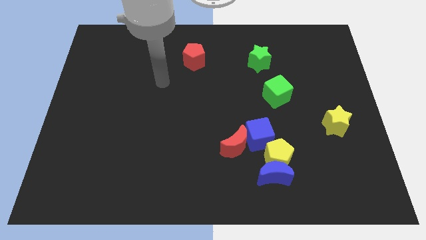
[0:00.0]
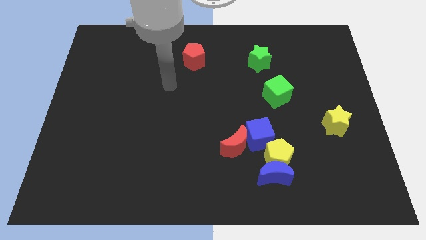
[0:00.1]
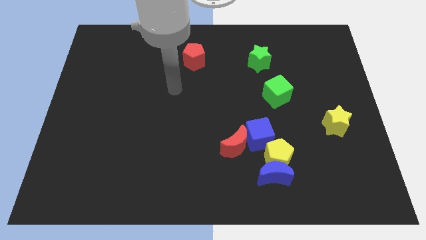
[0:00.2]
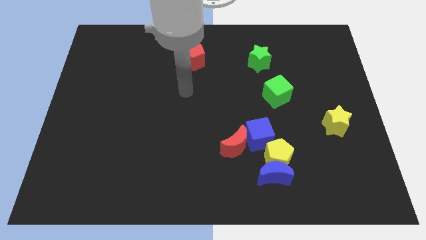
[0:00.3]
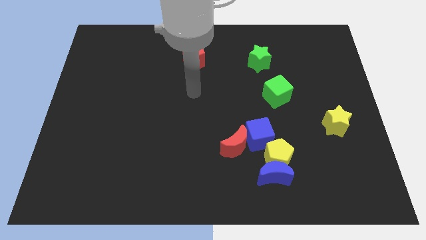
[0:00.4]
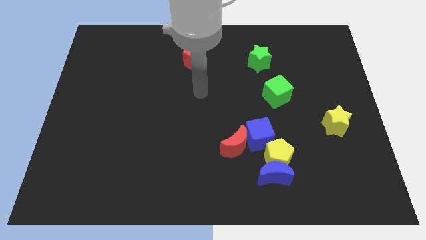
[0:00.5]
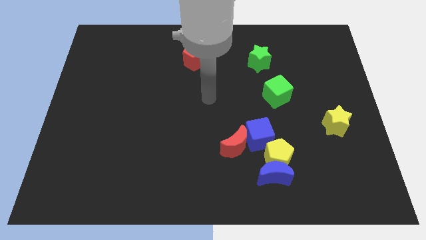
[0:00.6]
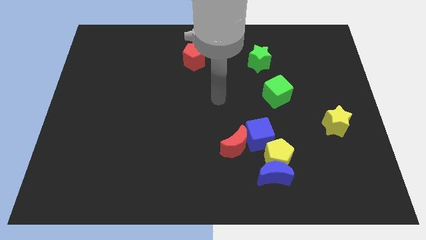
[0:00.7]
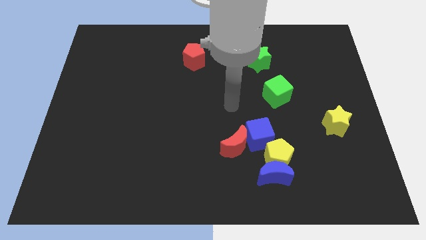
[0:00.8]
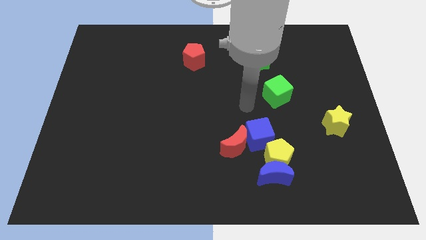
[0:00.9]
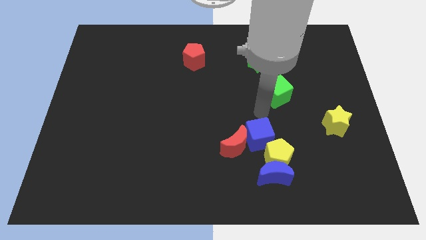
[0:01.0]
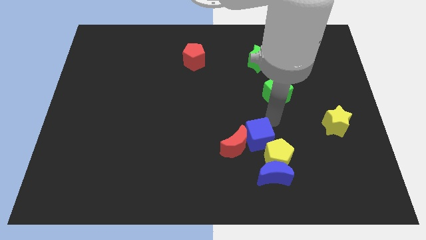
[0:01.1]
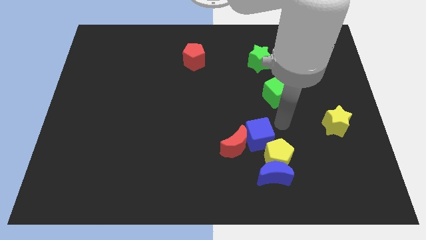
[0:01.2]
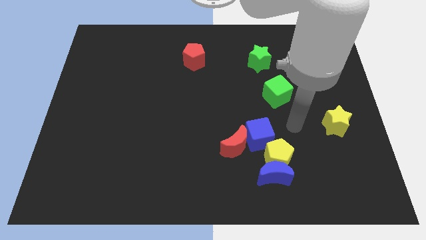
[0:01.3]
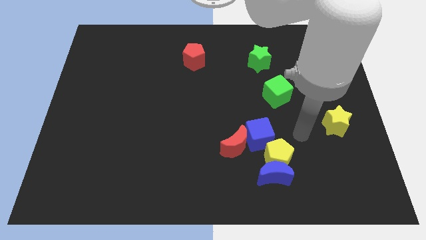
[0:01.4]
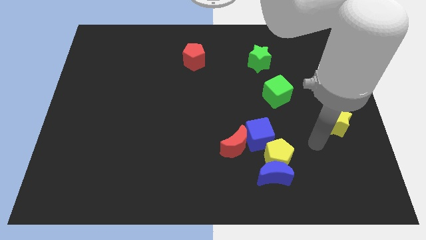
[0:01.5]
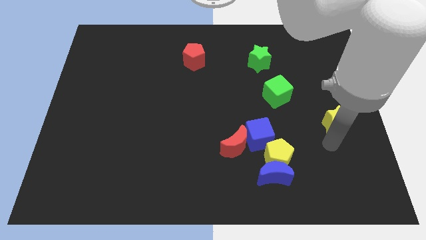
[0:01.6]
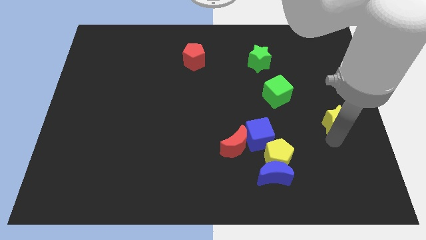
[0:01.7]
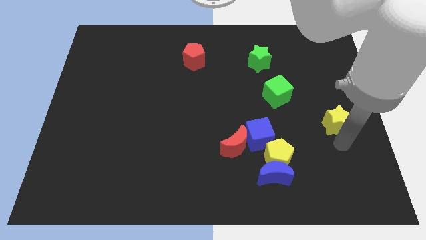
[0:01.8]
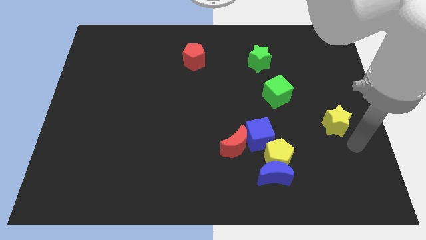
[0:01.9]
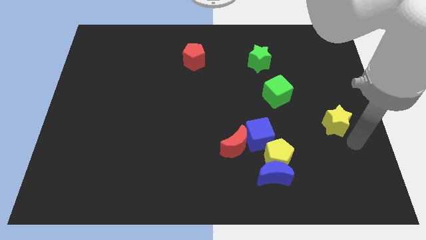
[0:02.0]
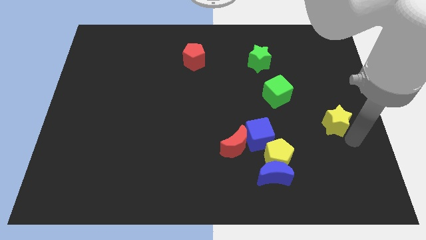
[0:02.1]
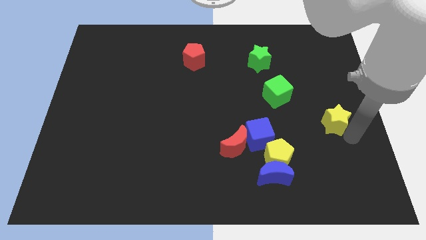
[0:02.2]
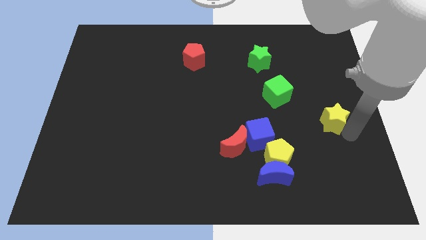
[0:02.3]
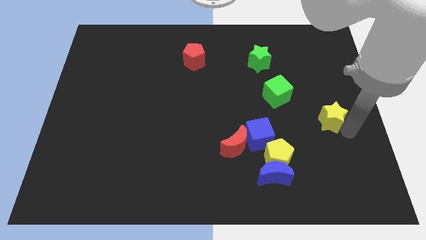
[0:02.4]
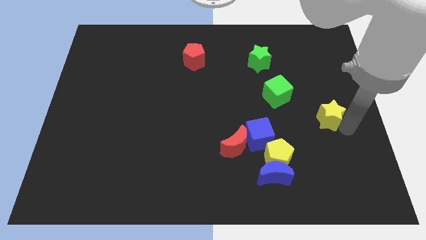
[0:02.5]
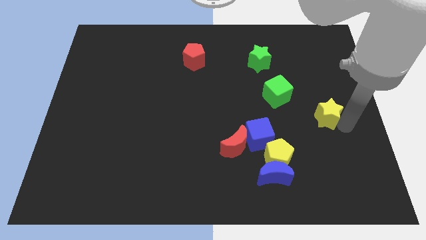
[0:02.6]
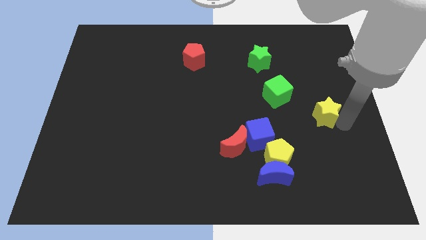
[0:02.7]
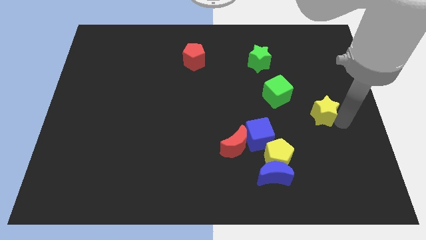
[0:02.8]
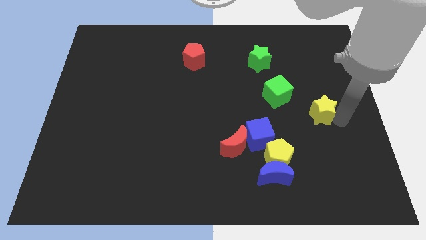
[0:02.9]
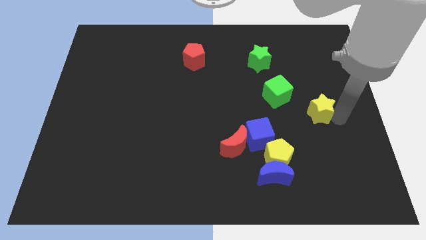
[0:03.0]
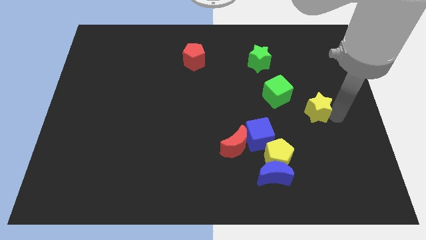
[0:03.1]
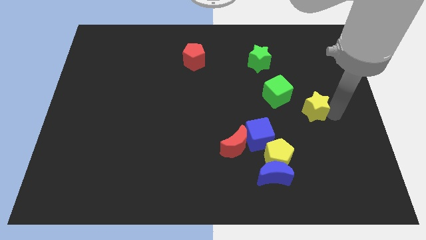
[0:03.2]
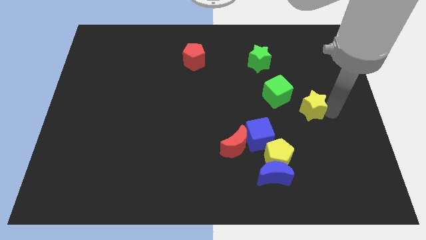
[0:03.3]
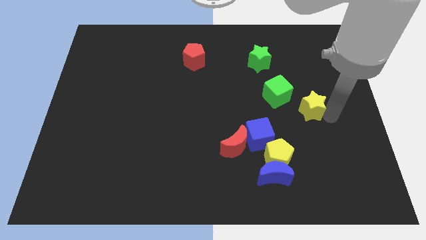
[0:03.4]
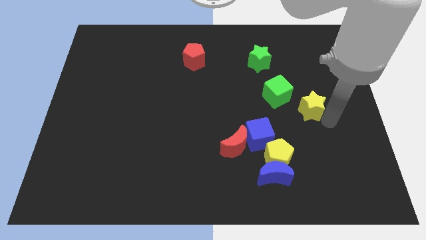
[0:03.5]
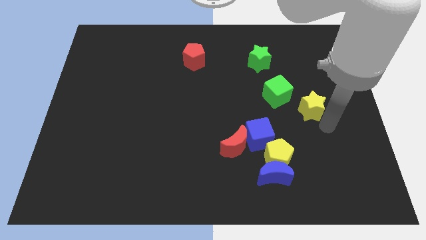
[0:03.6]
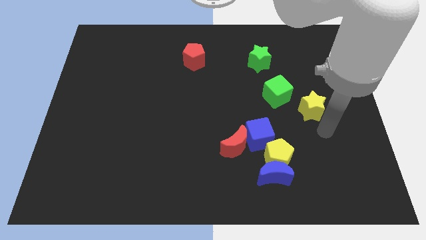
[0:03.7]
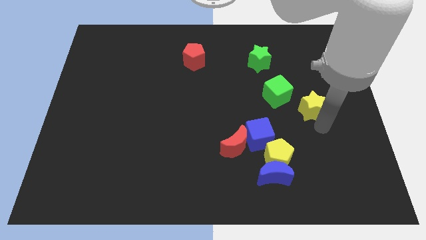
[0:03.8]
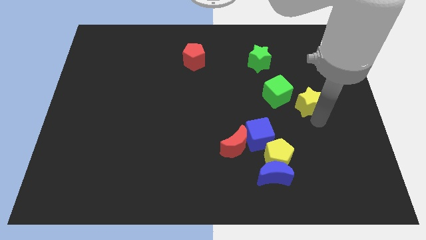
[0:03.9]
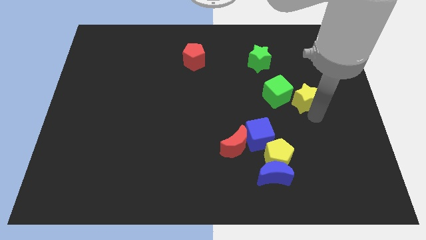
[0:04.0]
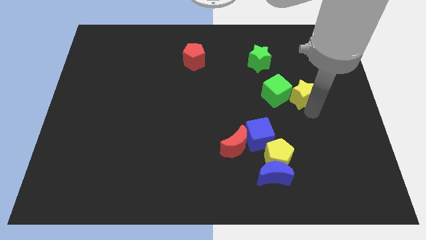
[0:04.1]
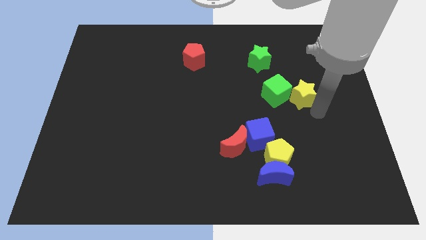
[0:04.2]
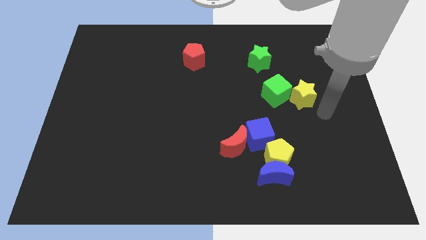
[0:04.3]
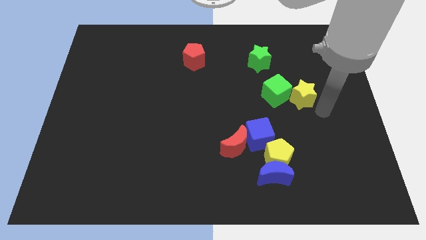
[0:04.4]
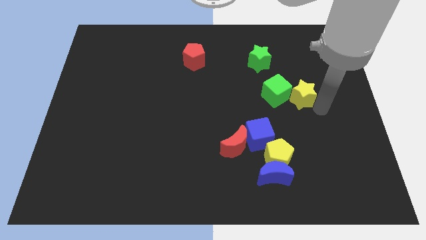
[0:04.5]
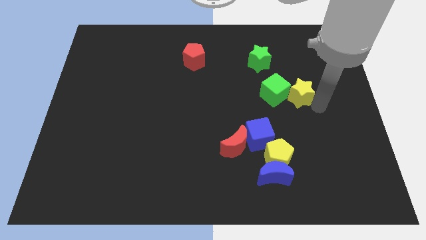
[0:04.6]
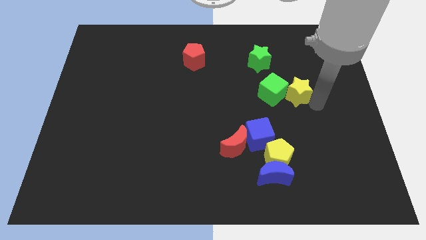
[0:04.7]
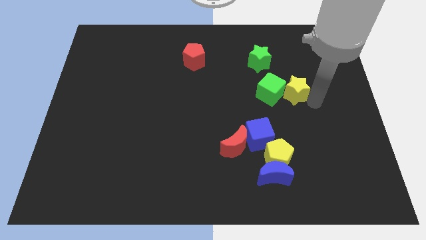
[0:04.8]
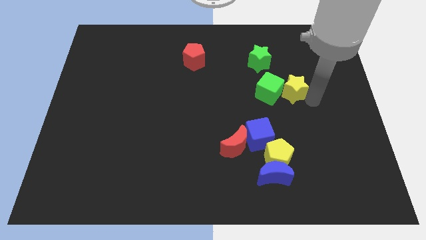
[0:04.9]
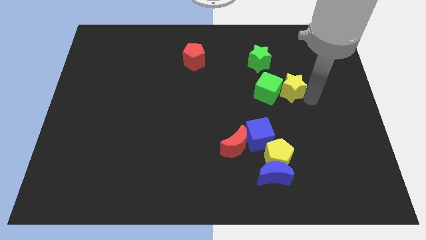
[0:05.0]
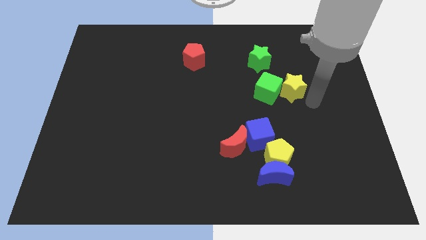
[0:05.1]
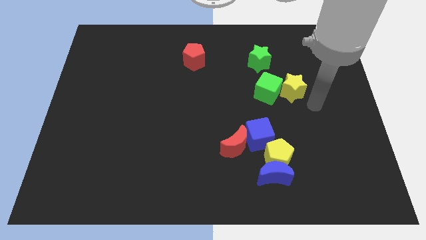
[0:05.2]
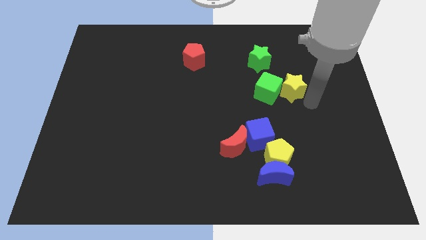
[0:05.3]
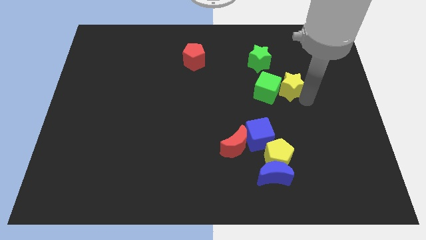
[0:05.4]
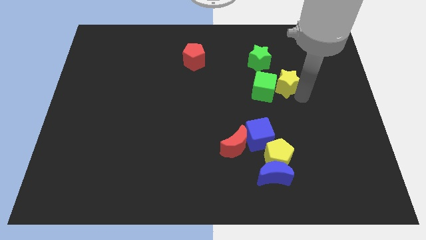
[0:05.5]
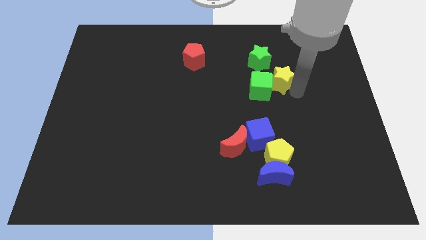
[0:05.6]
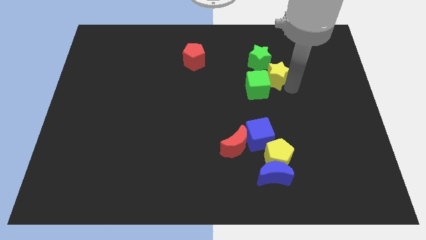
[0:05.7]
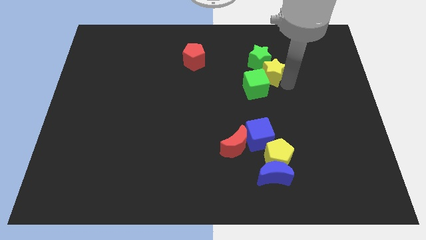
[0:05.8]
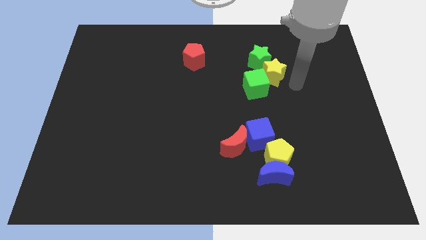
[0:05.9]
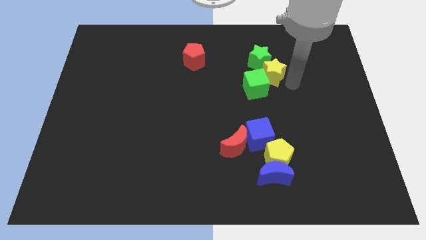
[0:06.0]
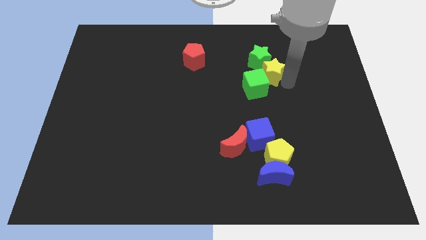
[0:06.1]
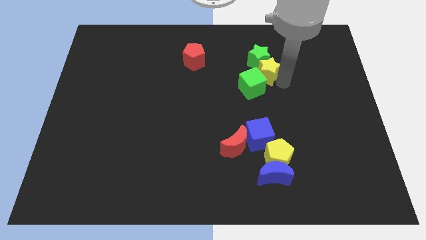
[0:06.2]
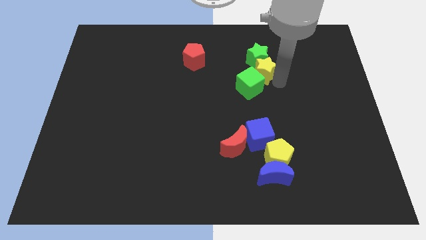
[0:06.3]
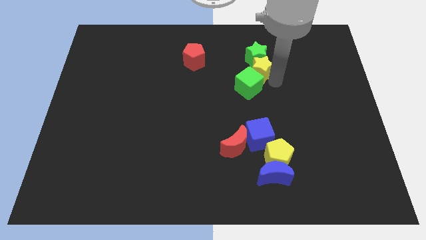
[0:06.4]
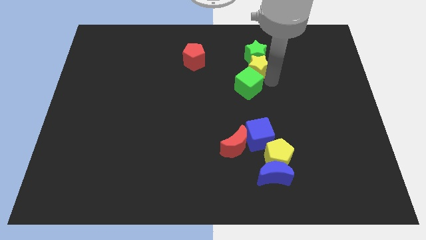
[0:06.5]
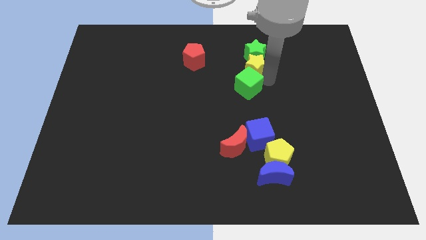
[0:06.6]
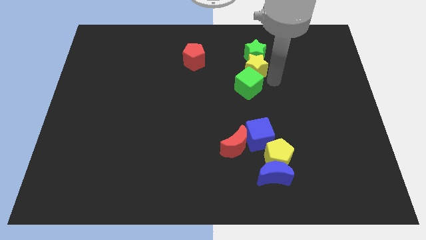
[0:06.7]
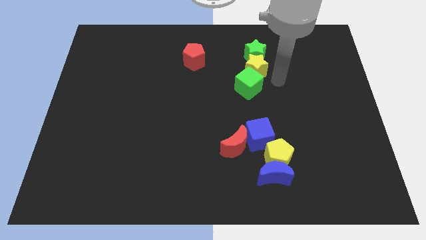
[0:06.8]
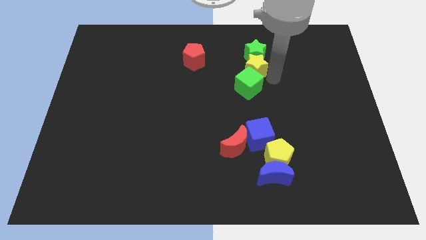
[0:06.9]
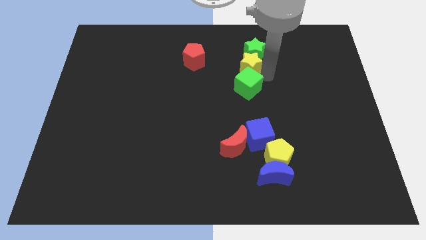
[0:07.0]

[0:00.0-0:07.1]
put the yellow star to the right side of the red pentagon
